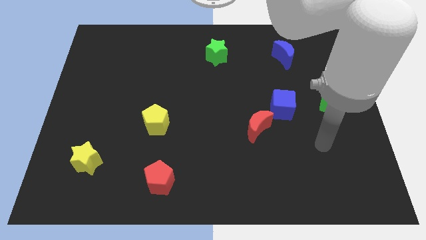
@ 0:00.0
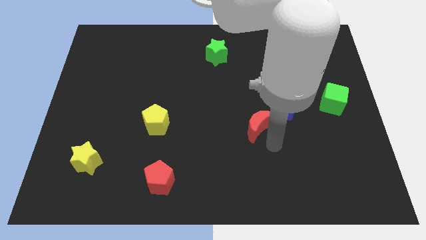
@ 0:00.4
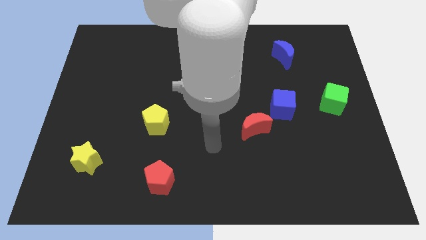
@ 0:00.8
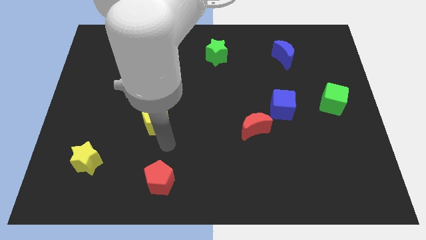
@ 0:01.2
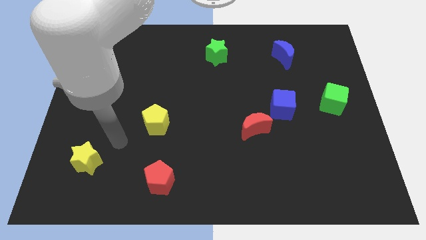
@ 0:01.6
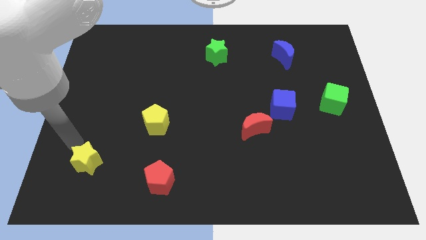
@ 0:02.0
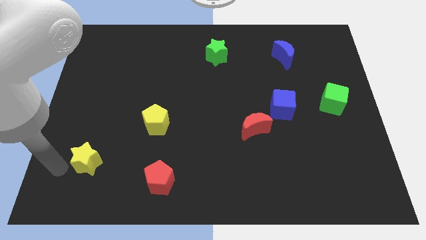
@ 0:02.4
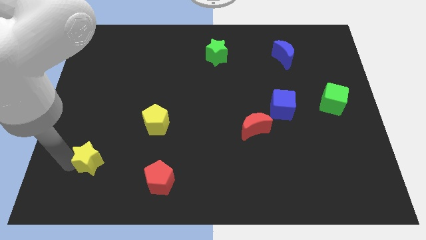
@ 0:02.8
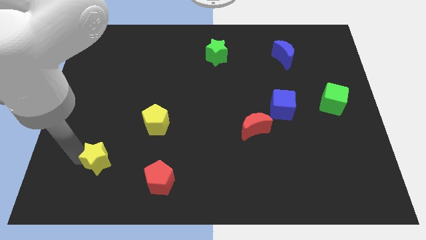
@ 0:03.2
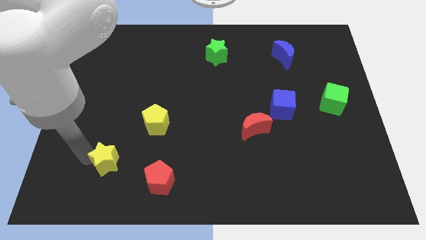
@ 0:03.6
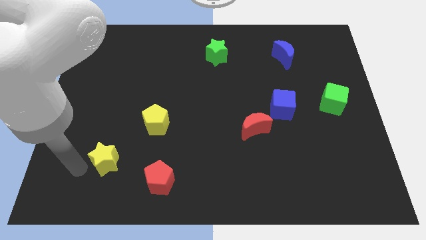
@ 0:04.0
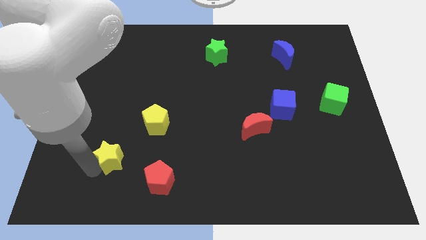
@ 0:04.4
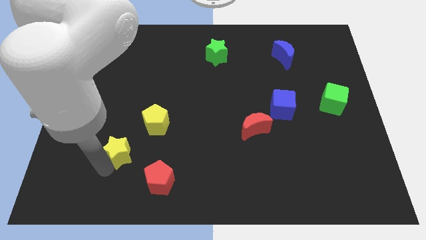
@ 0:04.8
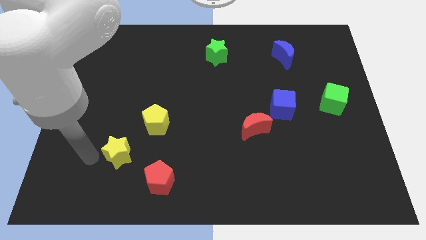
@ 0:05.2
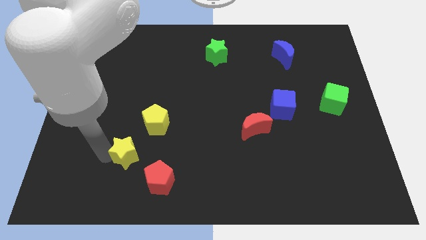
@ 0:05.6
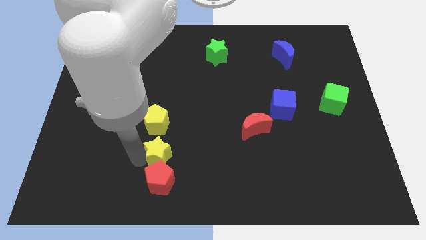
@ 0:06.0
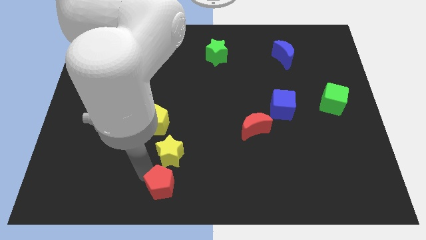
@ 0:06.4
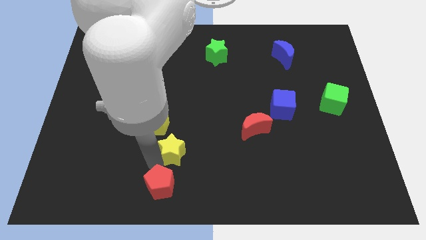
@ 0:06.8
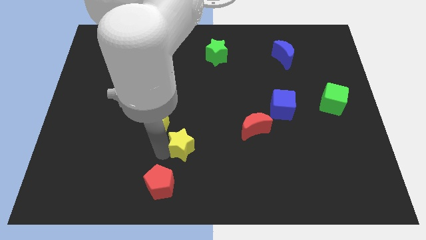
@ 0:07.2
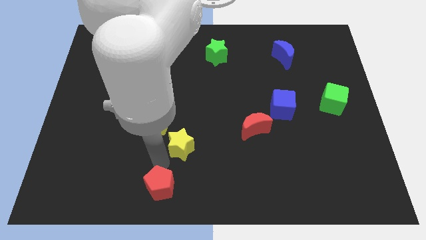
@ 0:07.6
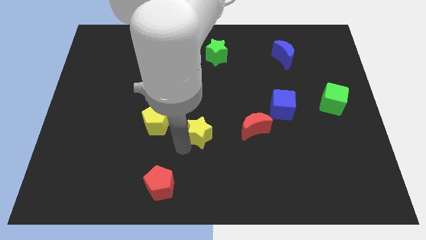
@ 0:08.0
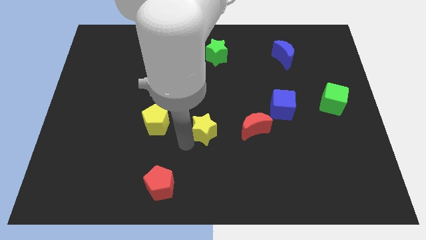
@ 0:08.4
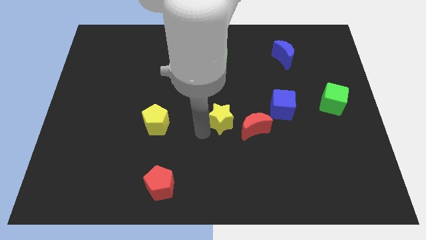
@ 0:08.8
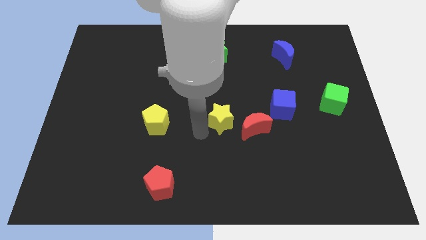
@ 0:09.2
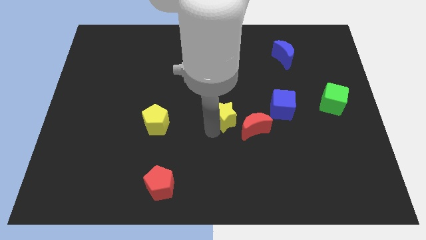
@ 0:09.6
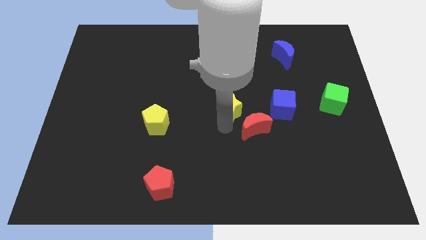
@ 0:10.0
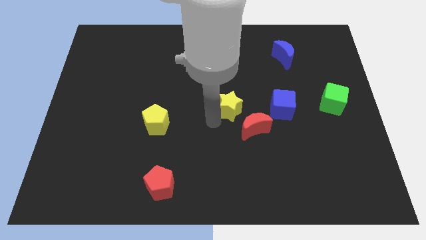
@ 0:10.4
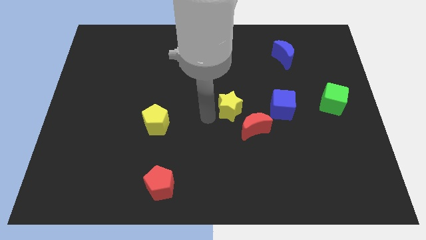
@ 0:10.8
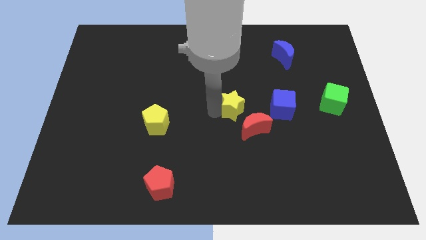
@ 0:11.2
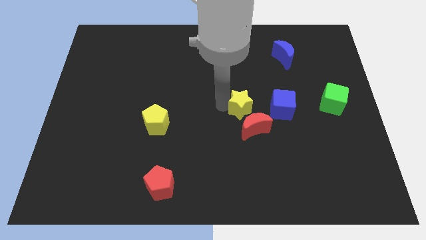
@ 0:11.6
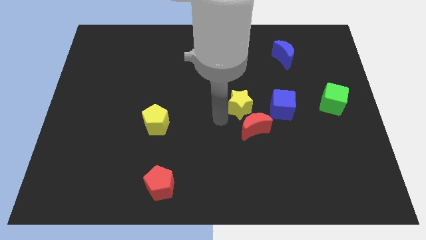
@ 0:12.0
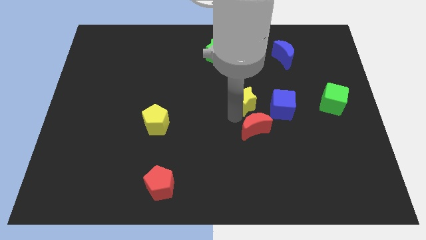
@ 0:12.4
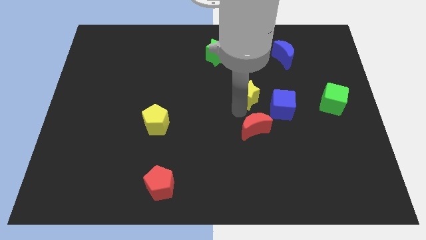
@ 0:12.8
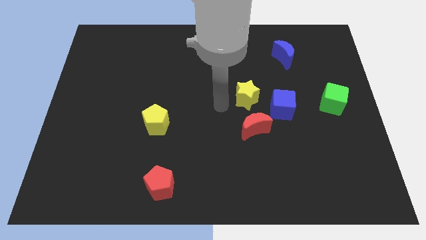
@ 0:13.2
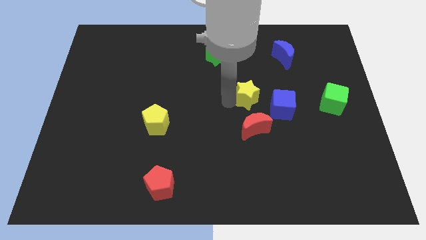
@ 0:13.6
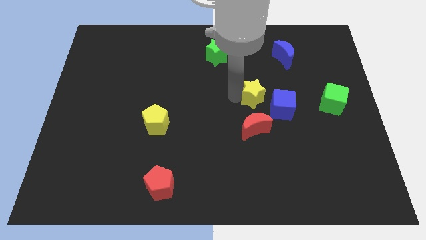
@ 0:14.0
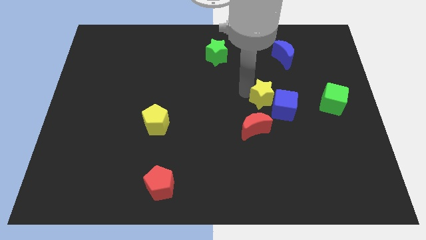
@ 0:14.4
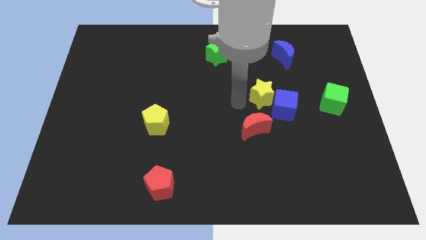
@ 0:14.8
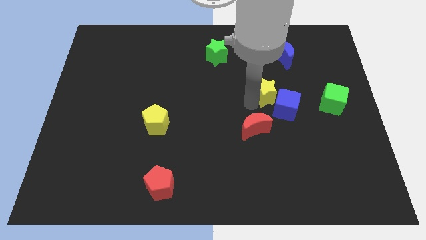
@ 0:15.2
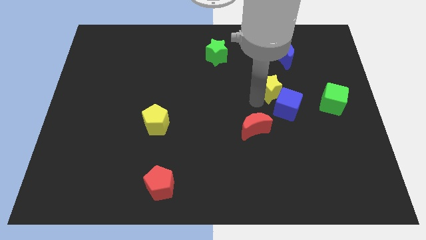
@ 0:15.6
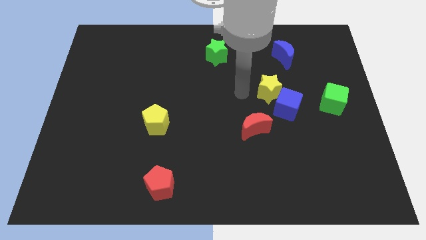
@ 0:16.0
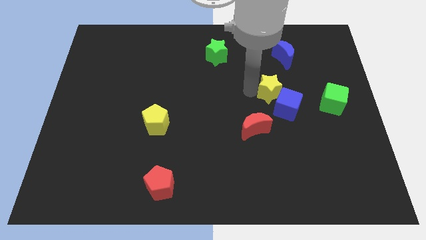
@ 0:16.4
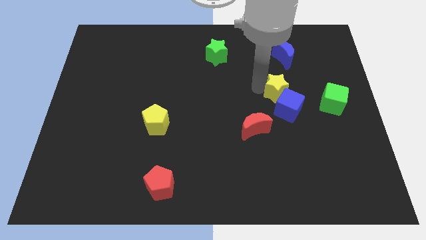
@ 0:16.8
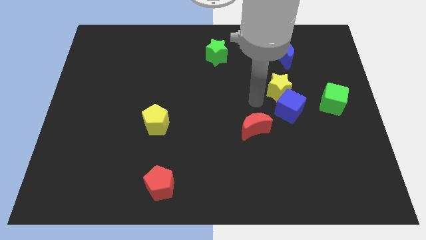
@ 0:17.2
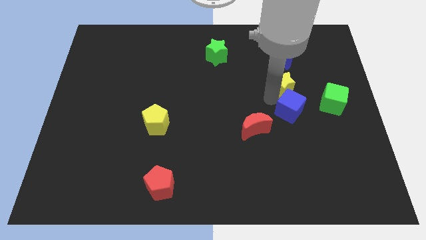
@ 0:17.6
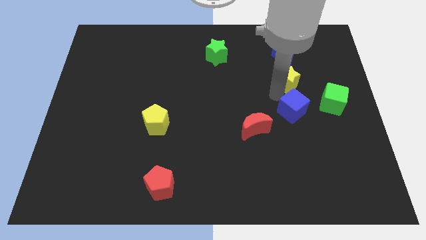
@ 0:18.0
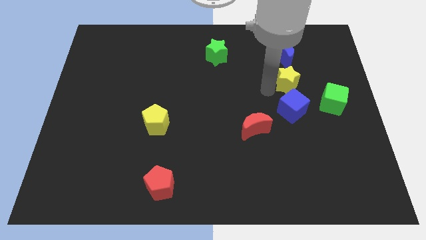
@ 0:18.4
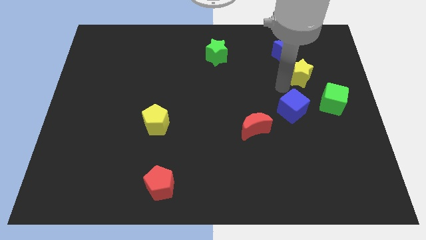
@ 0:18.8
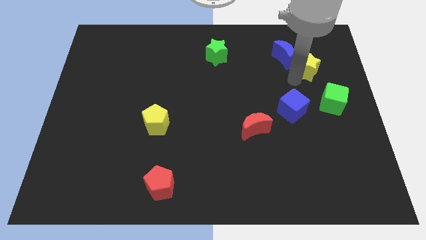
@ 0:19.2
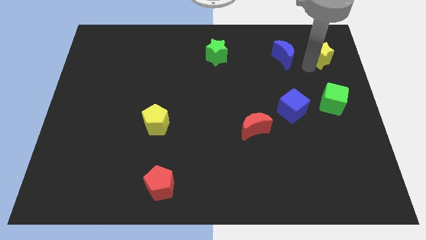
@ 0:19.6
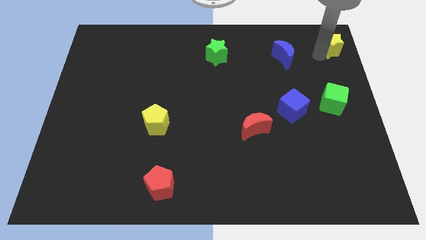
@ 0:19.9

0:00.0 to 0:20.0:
push the yellow star to the top right of the board

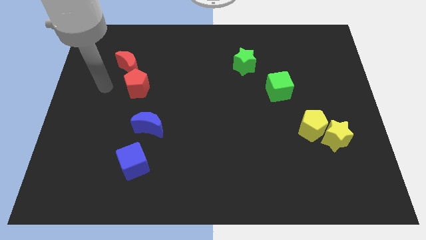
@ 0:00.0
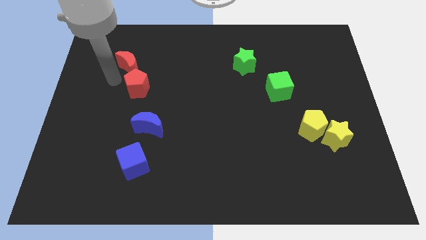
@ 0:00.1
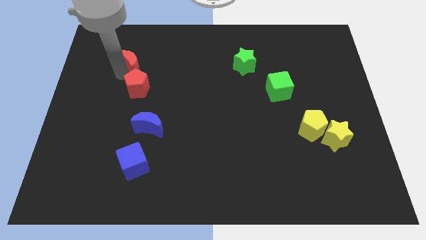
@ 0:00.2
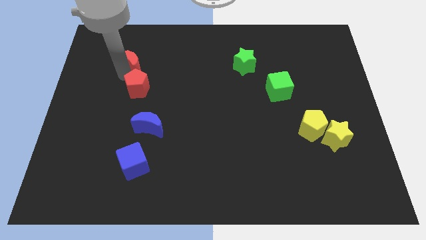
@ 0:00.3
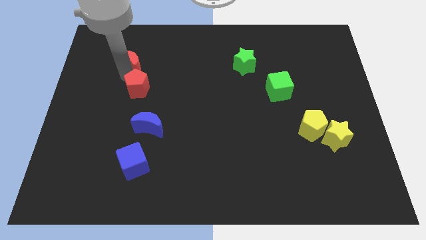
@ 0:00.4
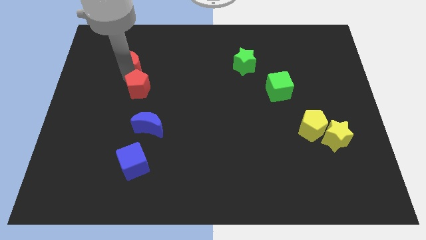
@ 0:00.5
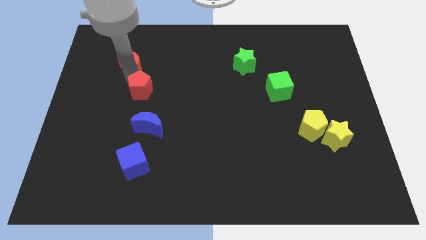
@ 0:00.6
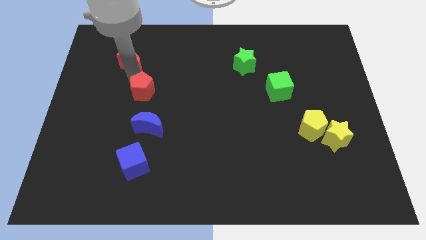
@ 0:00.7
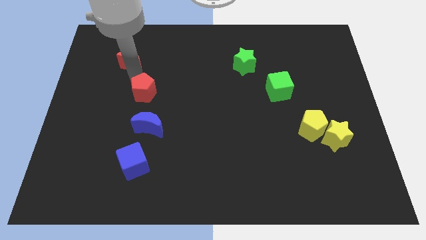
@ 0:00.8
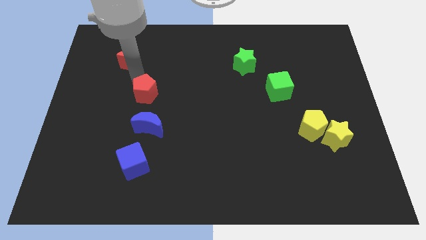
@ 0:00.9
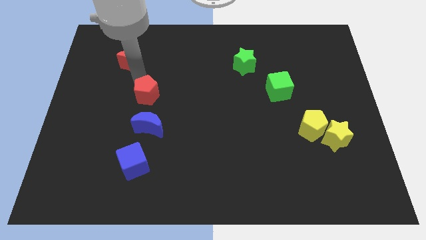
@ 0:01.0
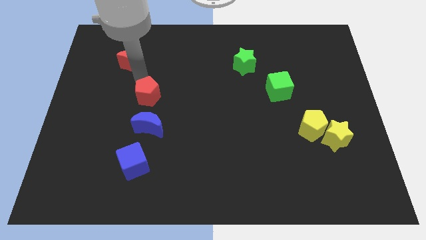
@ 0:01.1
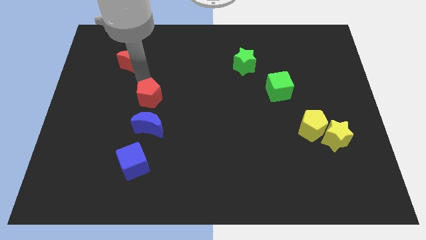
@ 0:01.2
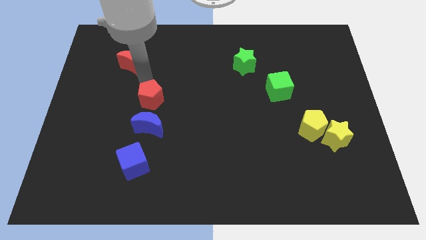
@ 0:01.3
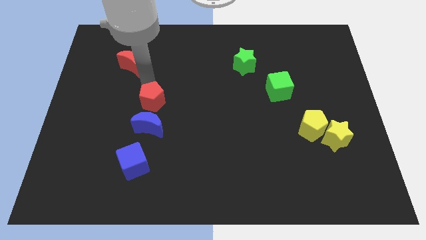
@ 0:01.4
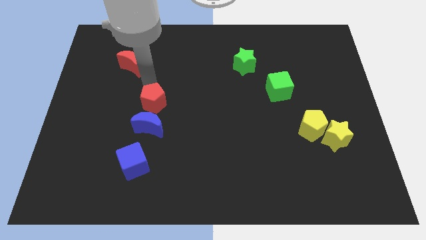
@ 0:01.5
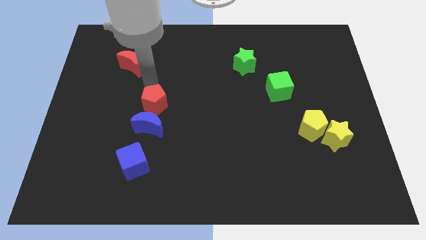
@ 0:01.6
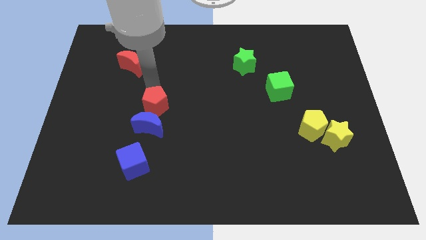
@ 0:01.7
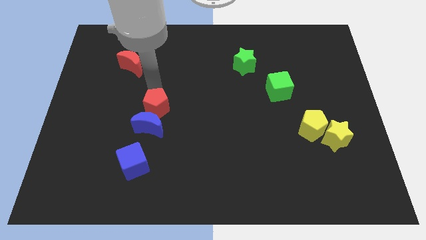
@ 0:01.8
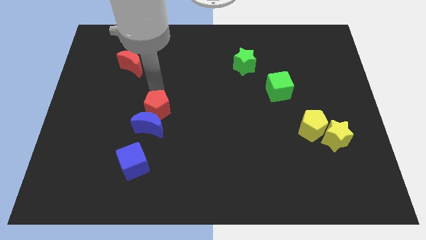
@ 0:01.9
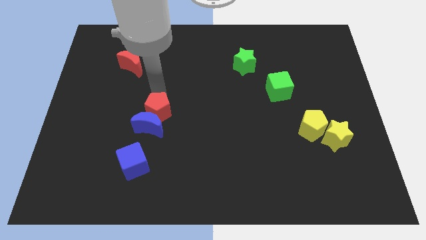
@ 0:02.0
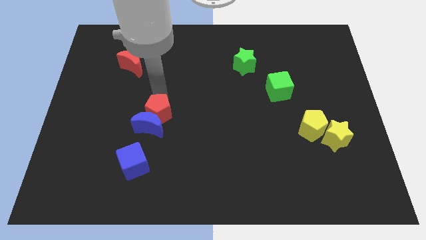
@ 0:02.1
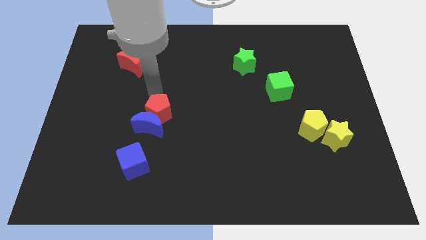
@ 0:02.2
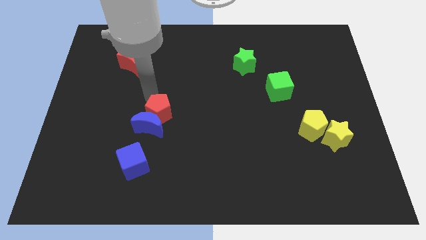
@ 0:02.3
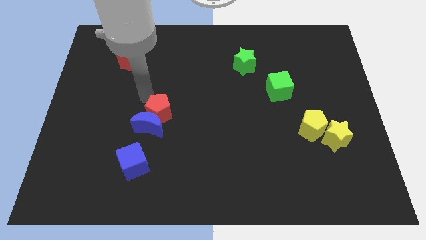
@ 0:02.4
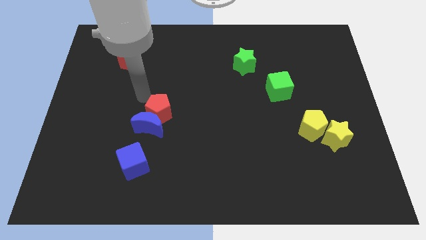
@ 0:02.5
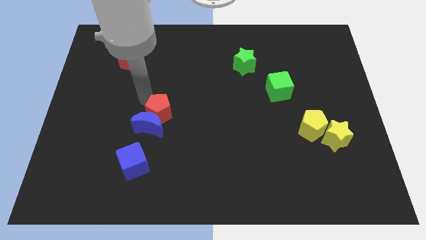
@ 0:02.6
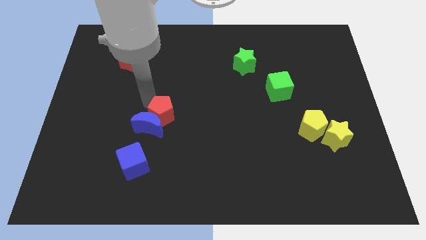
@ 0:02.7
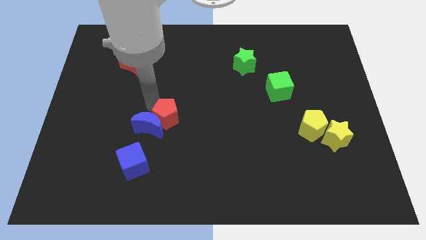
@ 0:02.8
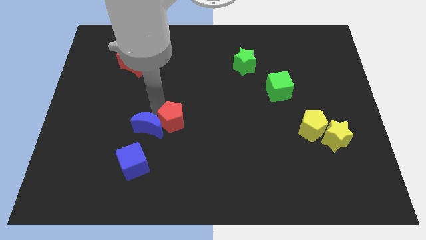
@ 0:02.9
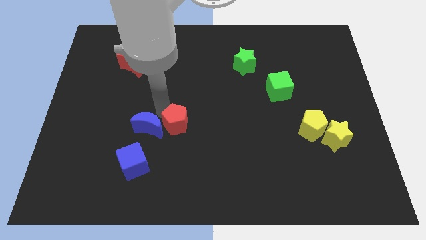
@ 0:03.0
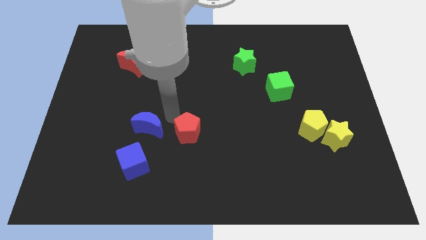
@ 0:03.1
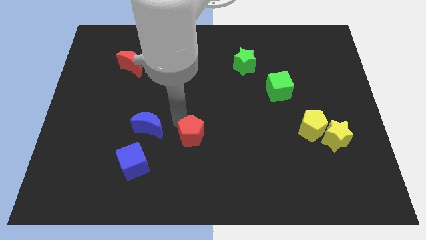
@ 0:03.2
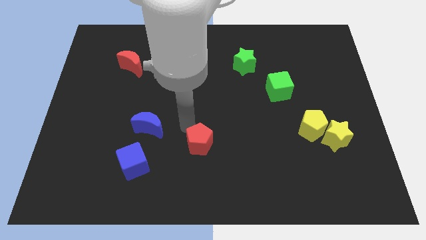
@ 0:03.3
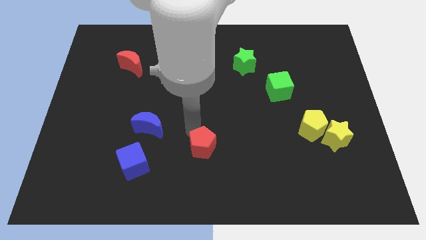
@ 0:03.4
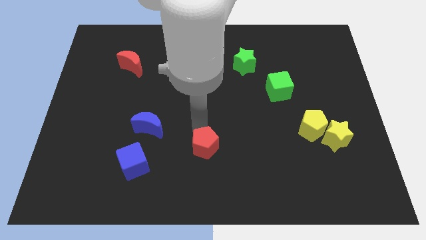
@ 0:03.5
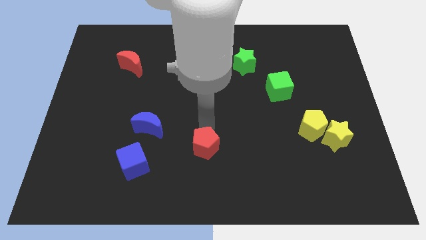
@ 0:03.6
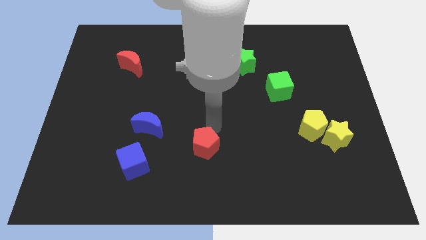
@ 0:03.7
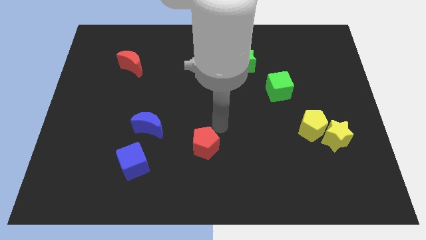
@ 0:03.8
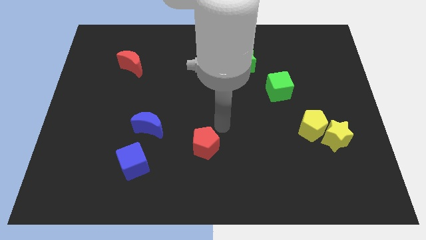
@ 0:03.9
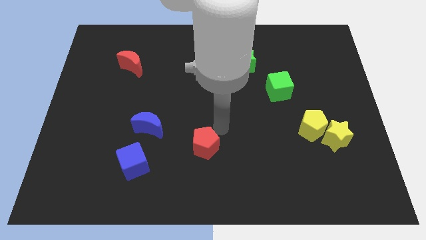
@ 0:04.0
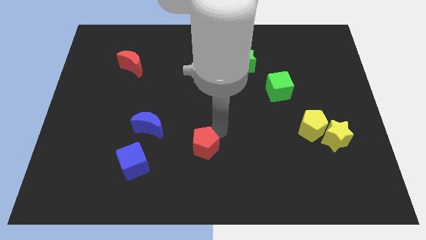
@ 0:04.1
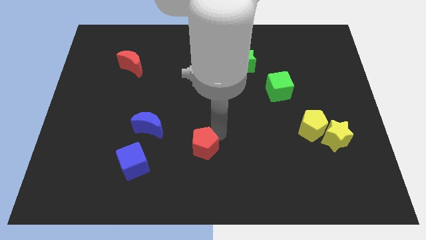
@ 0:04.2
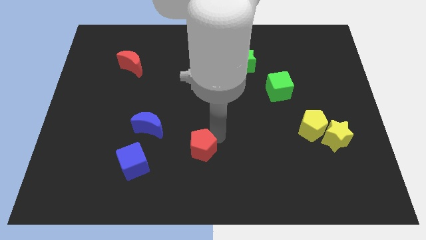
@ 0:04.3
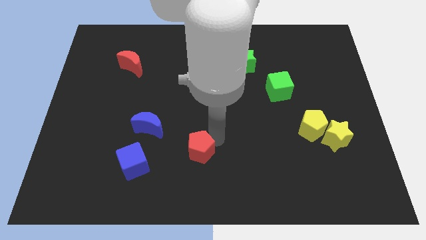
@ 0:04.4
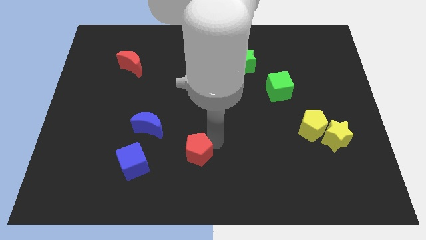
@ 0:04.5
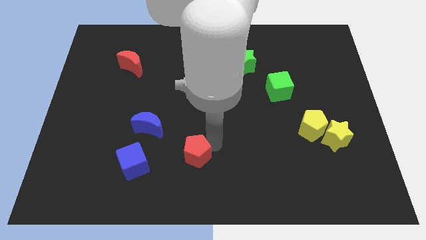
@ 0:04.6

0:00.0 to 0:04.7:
move the red pentagon to the bottom
